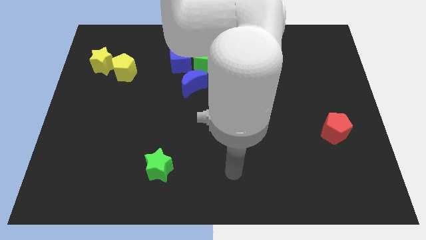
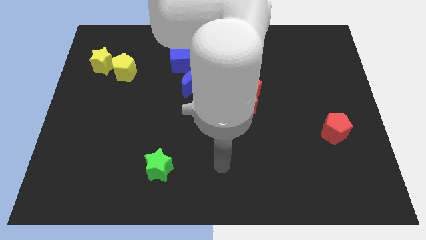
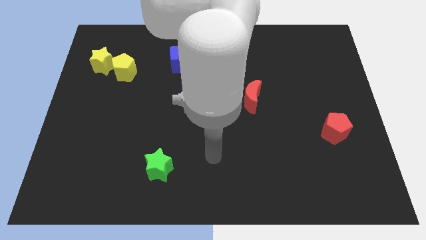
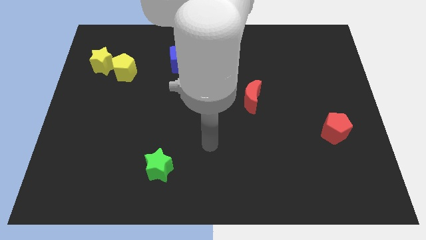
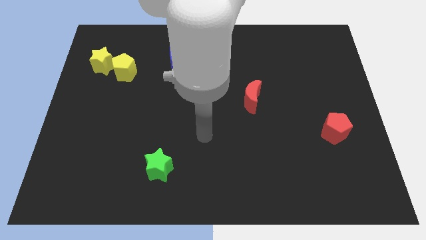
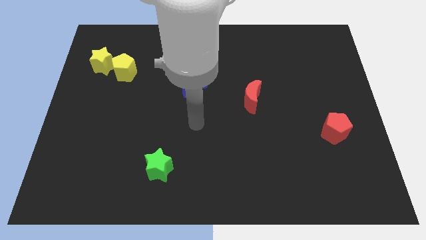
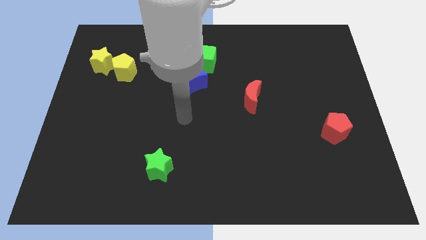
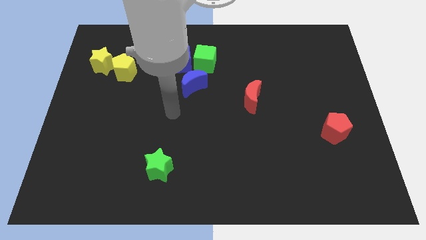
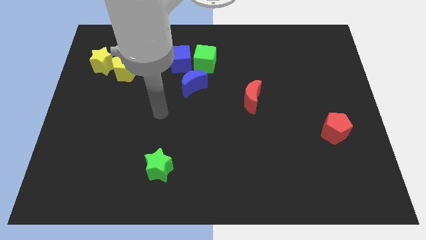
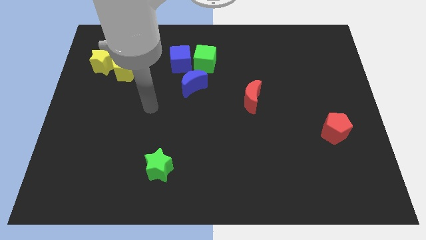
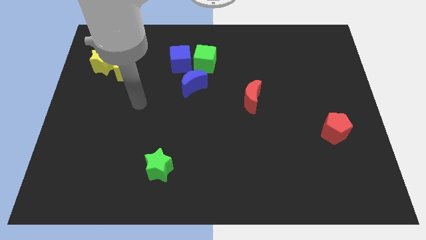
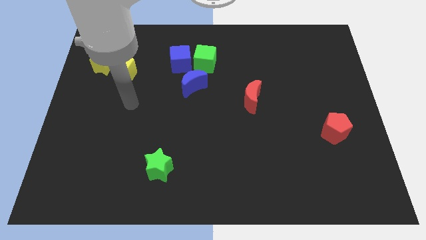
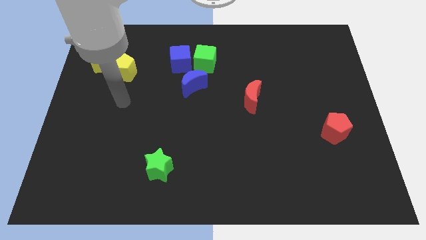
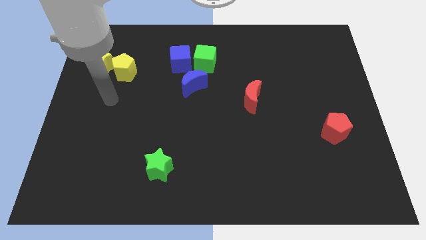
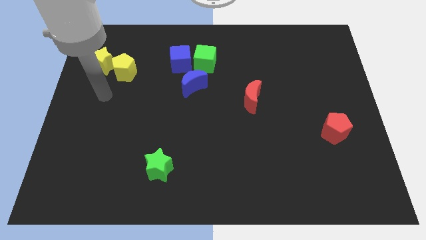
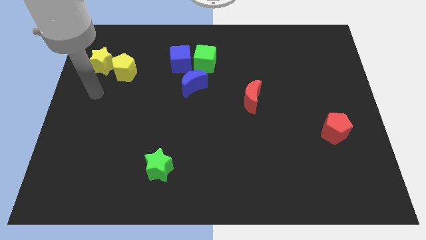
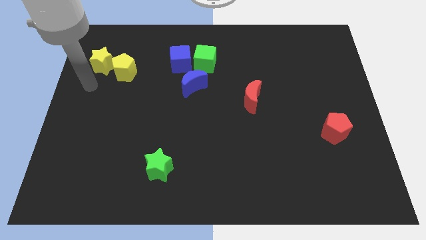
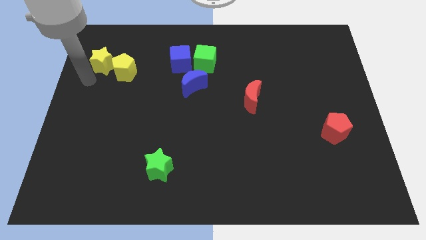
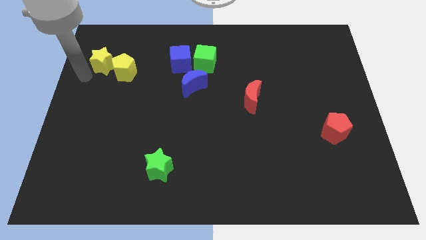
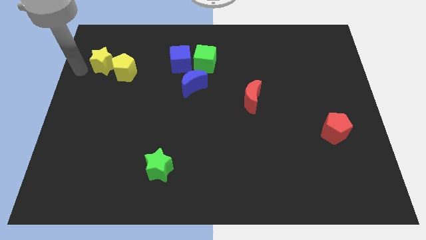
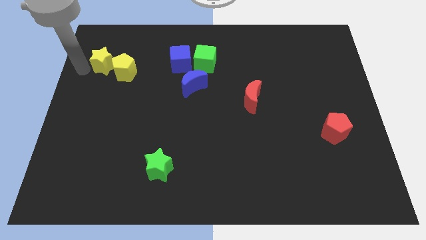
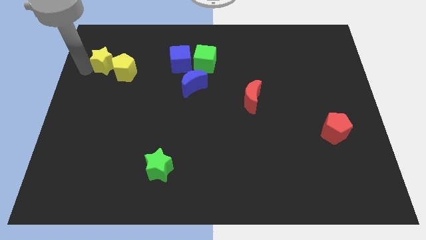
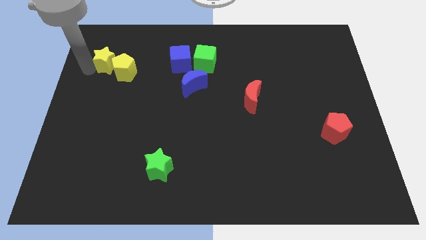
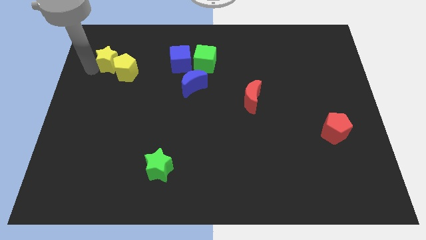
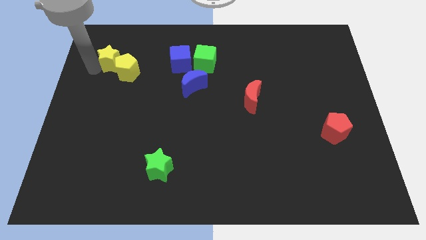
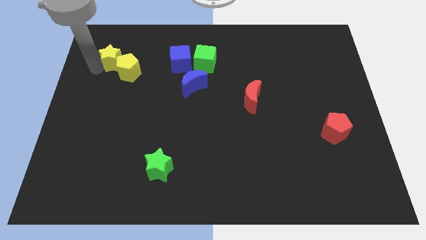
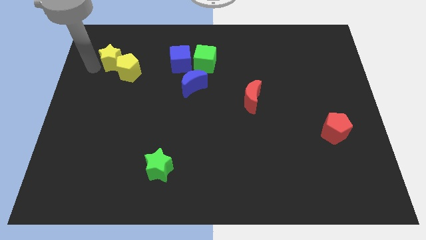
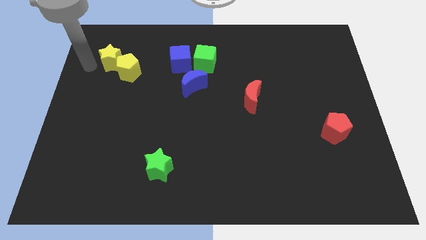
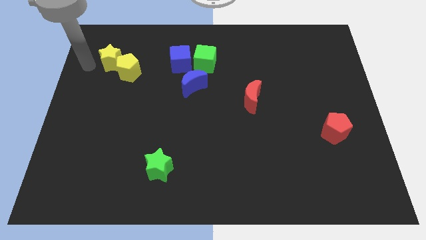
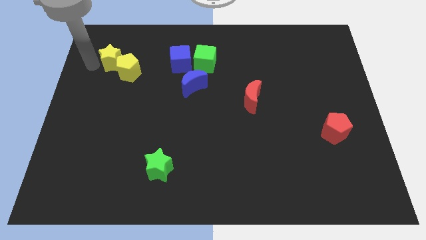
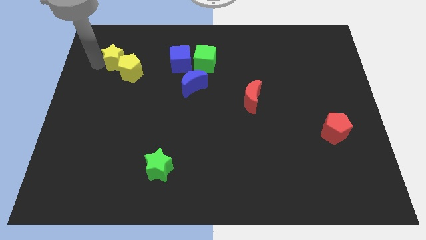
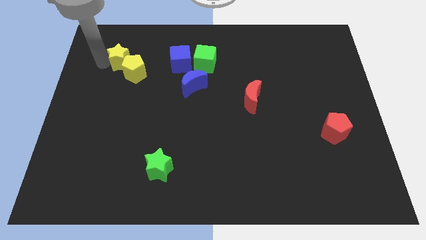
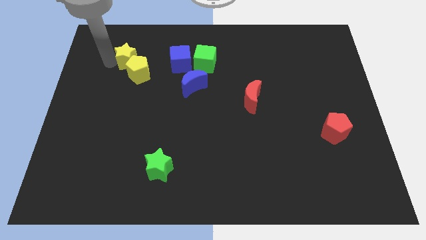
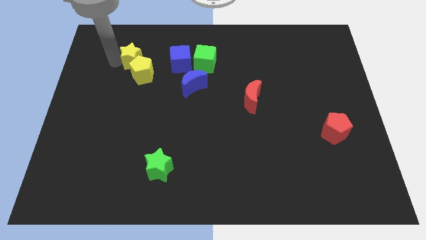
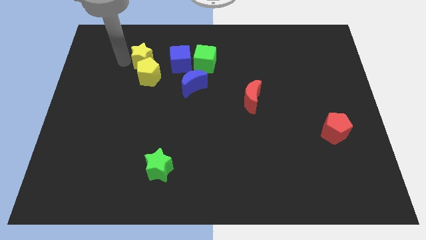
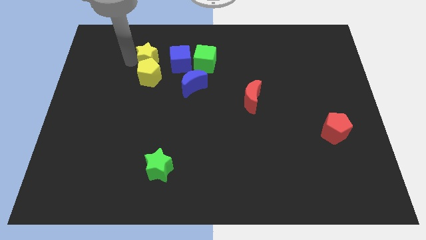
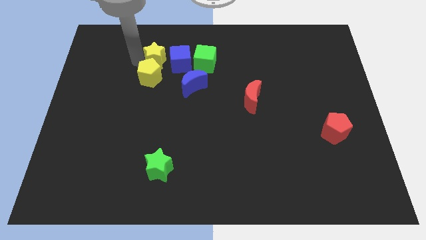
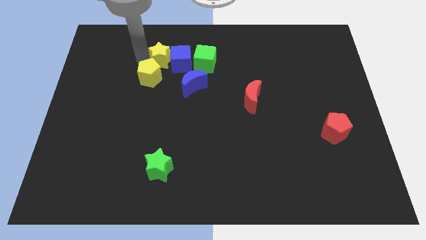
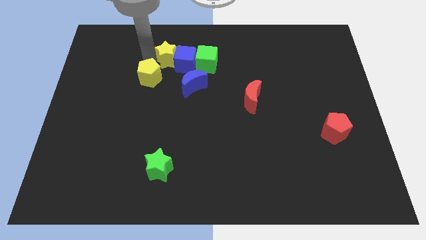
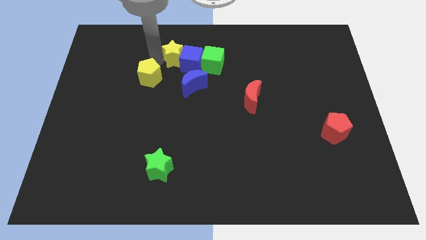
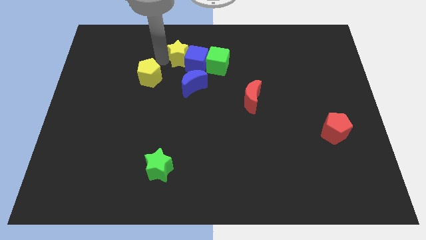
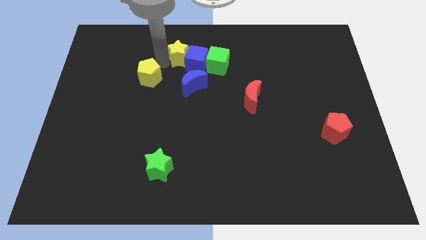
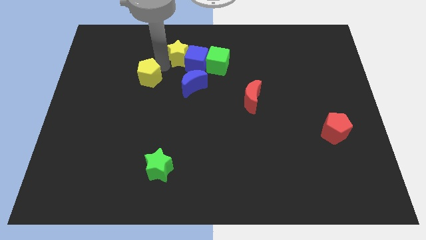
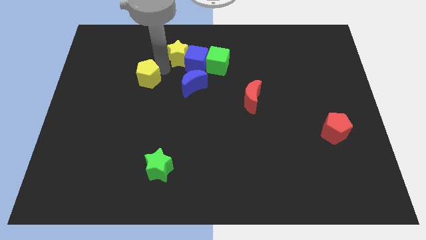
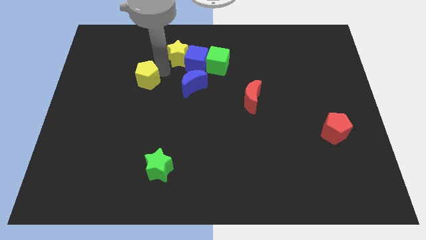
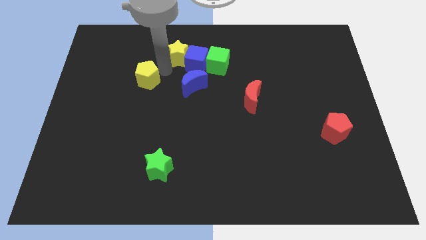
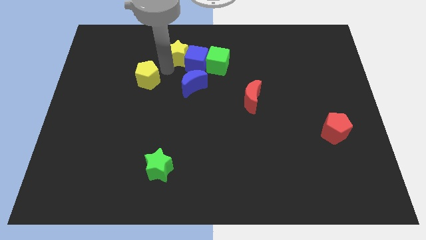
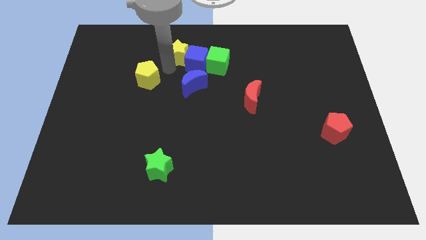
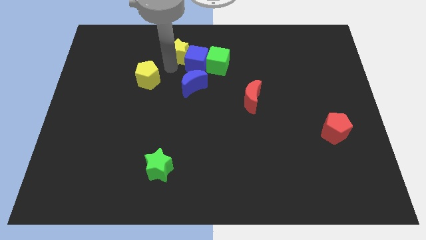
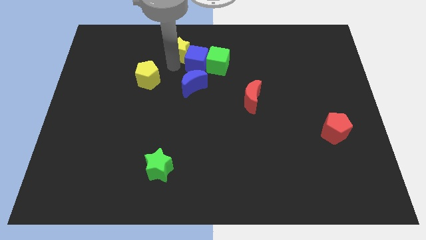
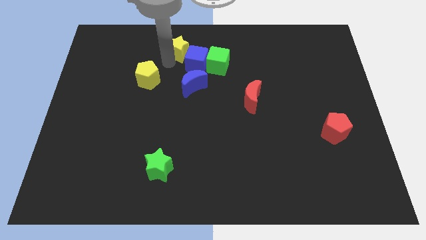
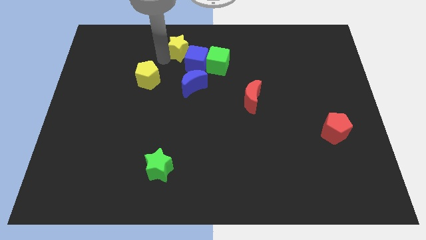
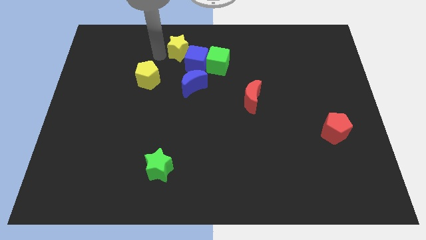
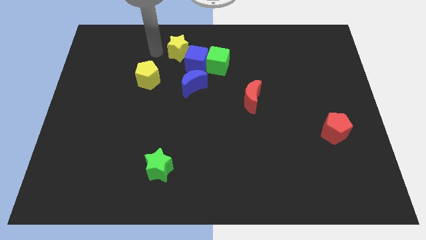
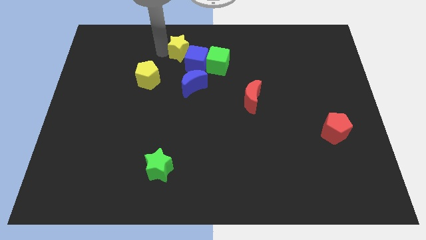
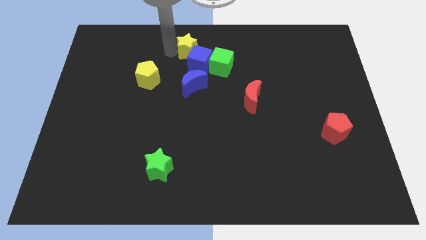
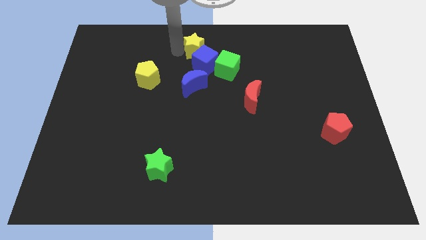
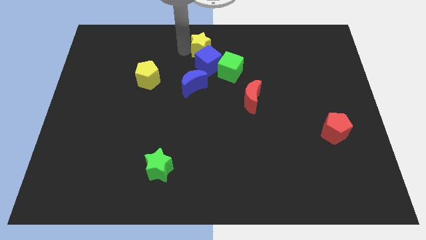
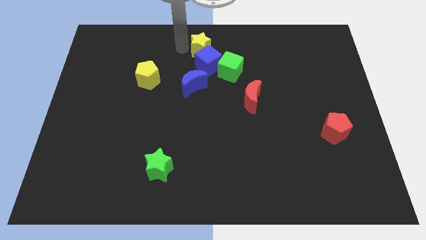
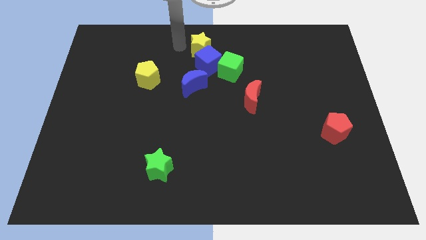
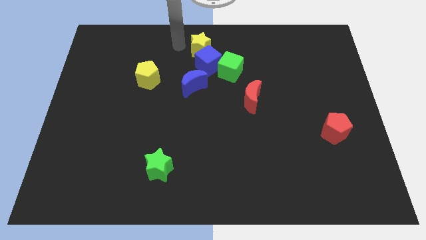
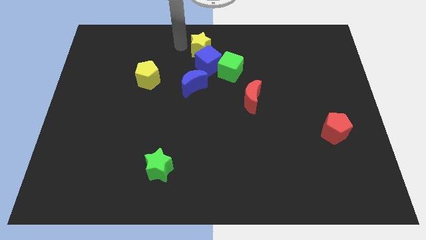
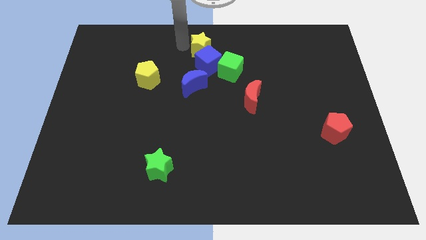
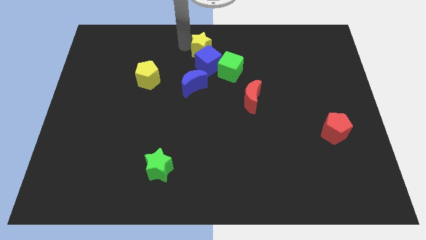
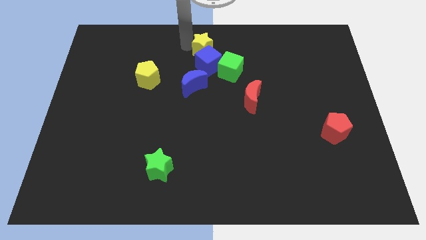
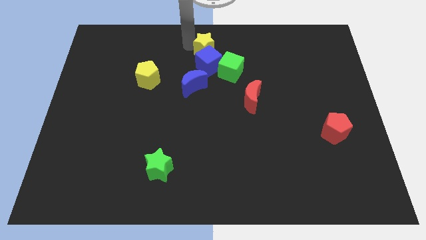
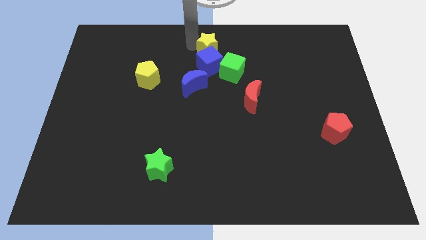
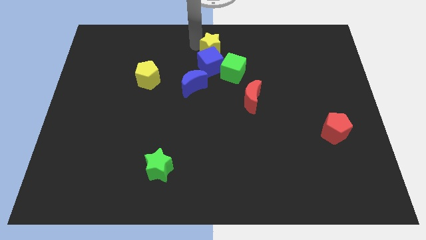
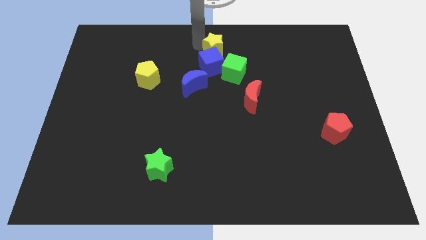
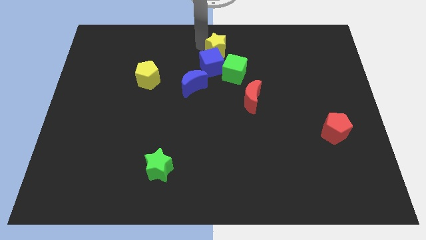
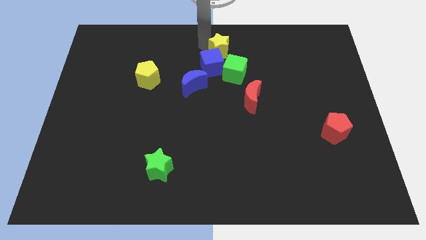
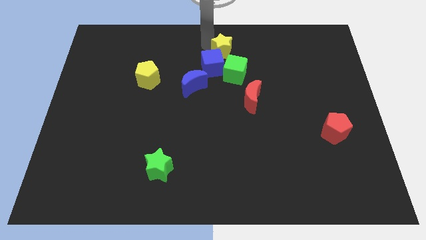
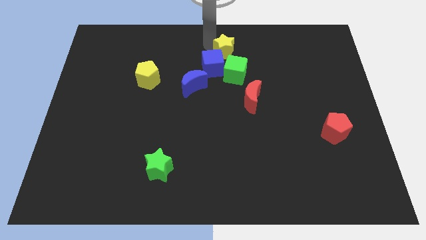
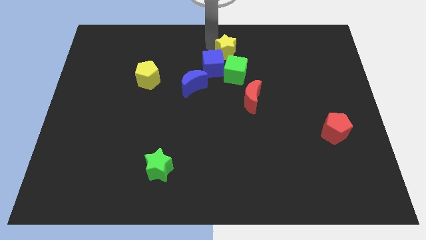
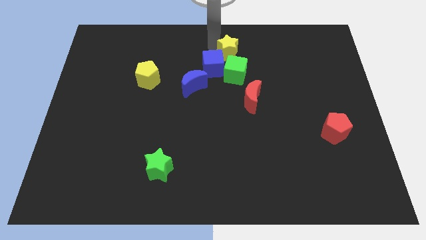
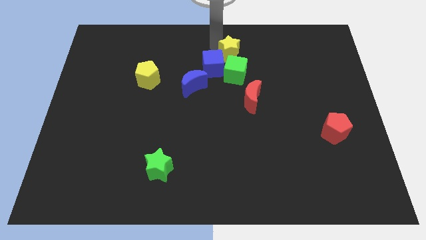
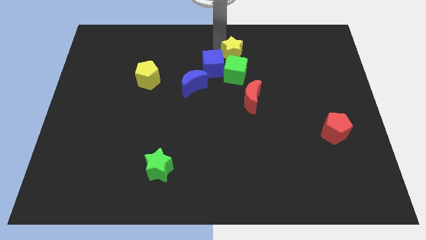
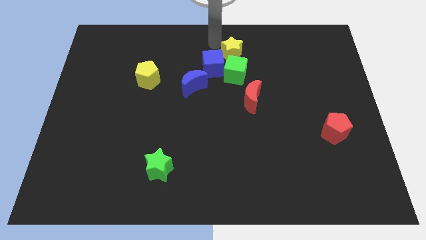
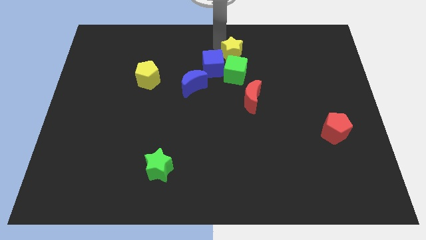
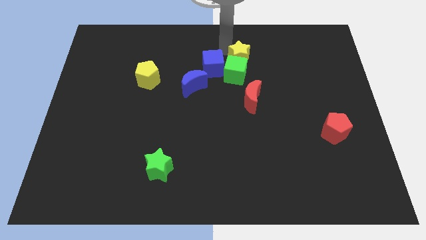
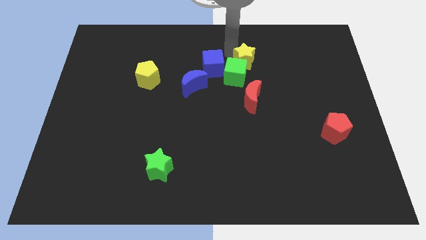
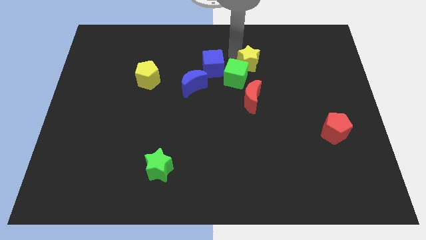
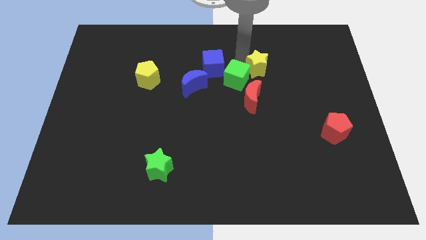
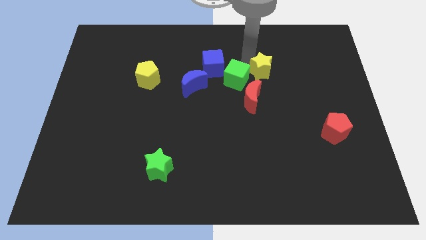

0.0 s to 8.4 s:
put the yellow star to the top right side of the red moon
